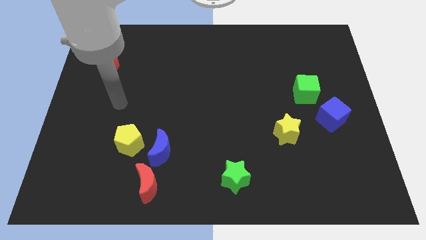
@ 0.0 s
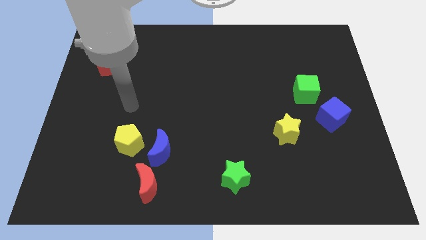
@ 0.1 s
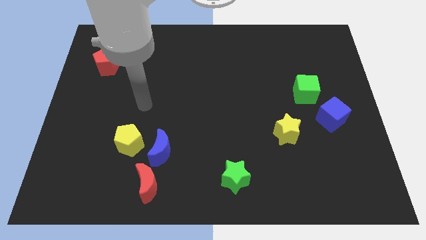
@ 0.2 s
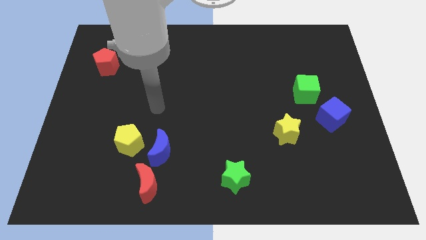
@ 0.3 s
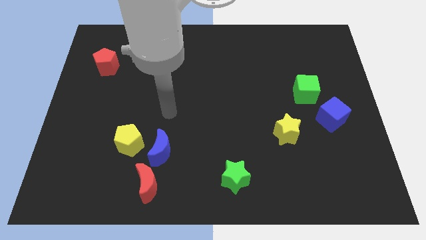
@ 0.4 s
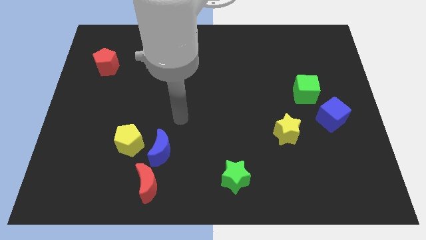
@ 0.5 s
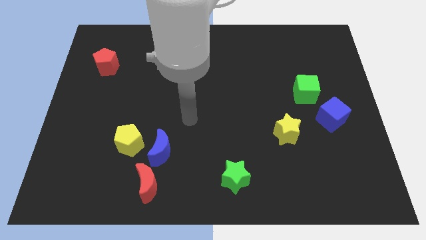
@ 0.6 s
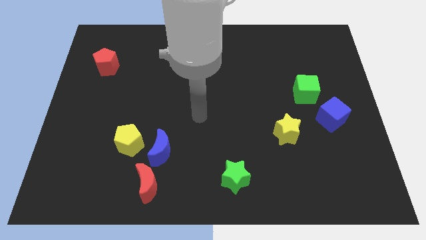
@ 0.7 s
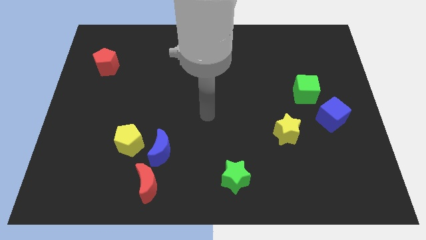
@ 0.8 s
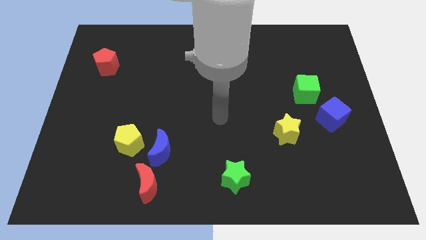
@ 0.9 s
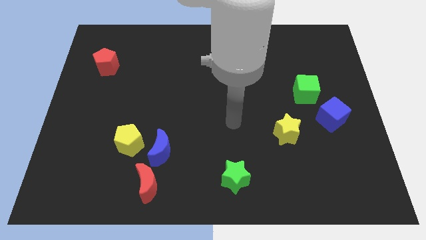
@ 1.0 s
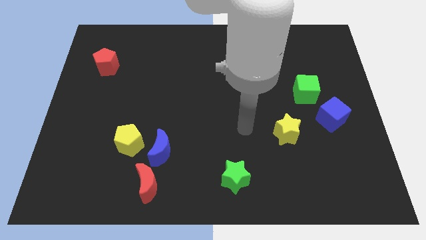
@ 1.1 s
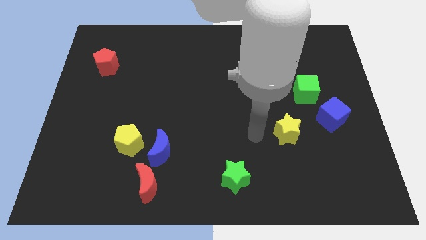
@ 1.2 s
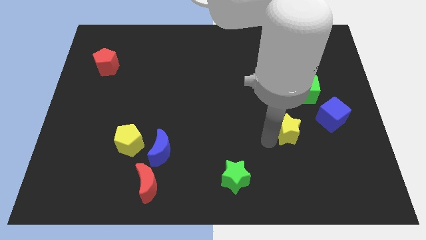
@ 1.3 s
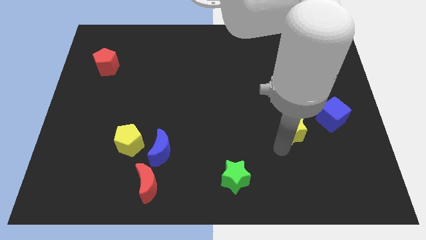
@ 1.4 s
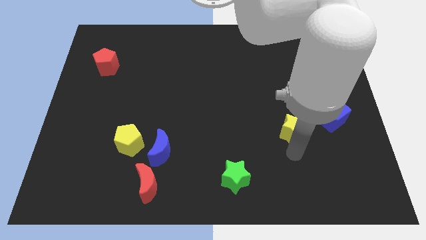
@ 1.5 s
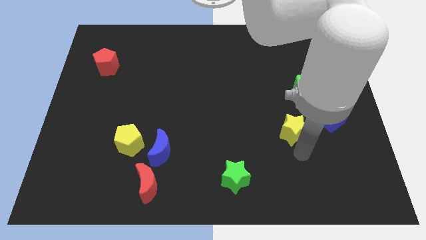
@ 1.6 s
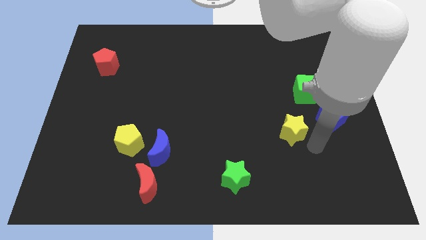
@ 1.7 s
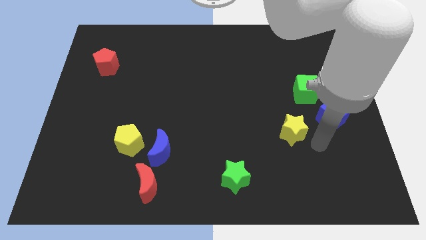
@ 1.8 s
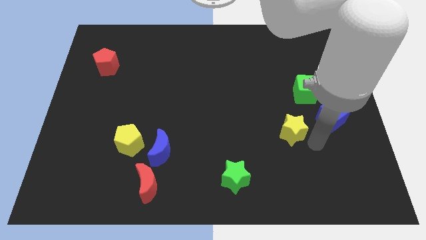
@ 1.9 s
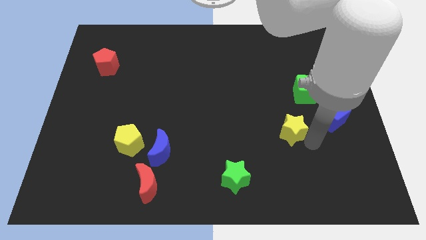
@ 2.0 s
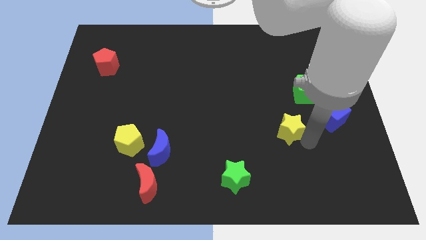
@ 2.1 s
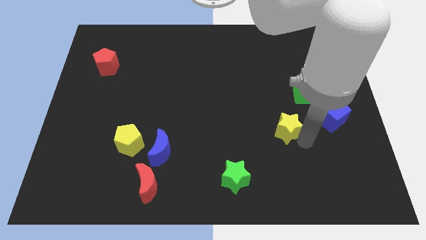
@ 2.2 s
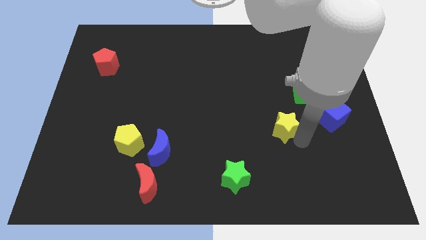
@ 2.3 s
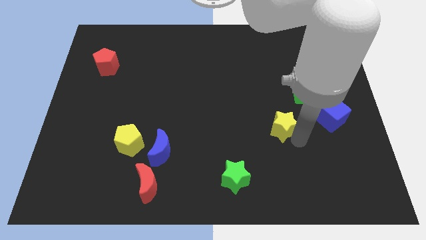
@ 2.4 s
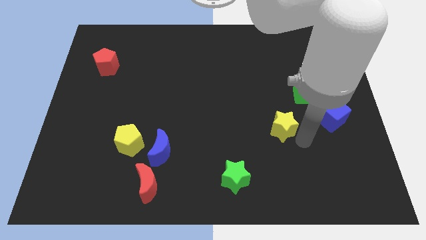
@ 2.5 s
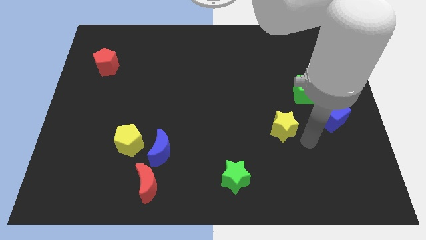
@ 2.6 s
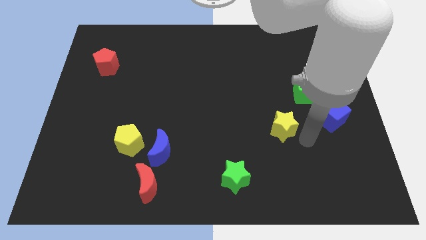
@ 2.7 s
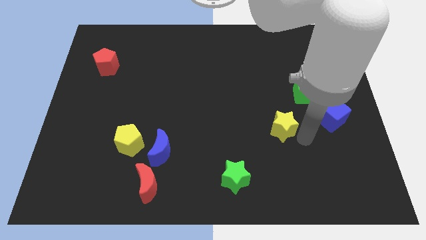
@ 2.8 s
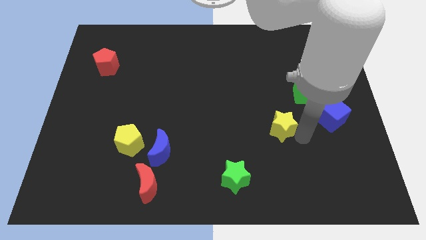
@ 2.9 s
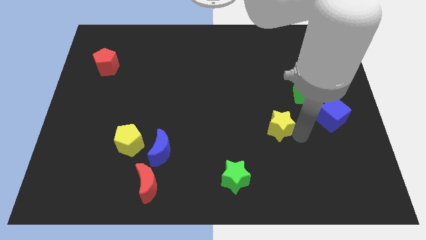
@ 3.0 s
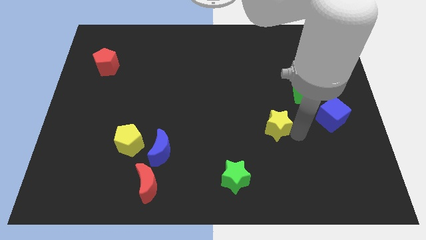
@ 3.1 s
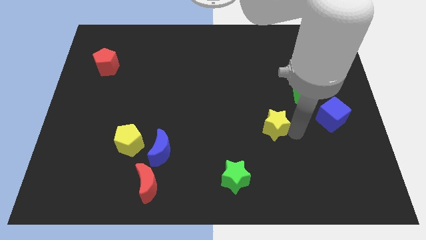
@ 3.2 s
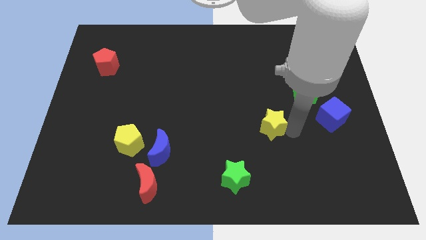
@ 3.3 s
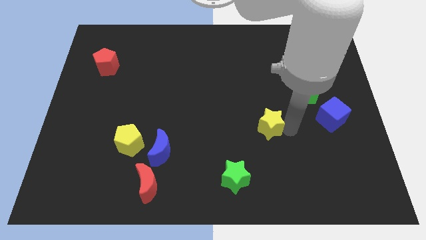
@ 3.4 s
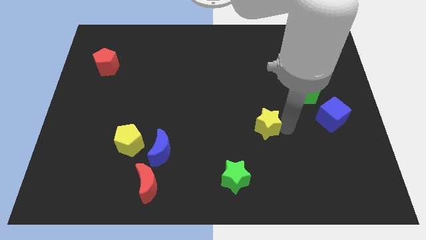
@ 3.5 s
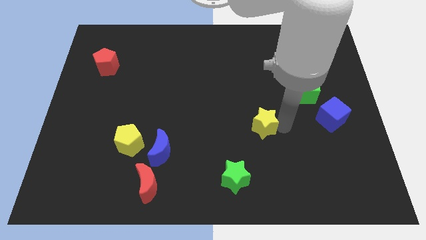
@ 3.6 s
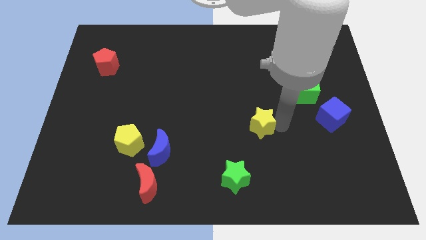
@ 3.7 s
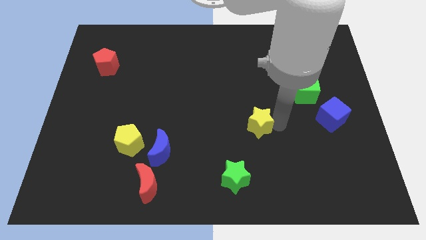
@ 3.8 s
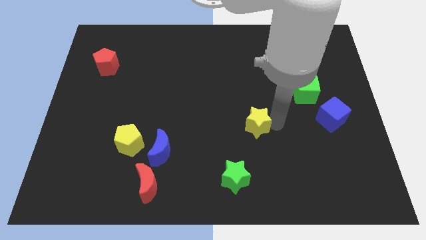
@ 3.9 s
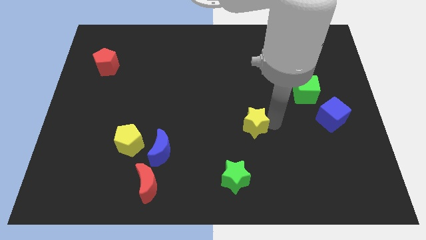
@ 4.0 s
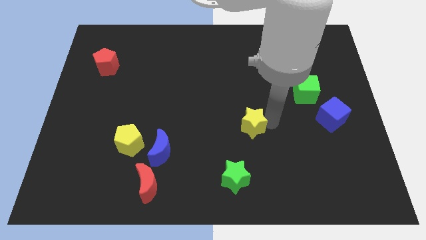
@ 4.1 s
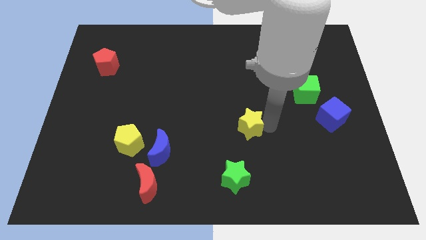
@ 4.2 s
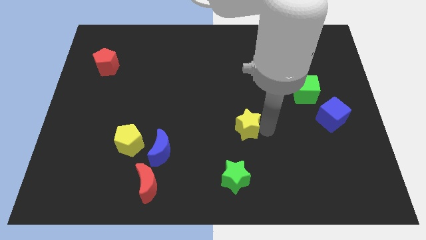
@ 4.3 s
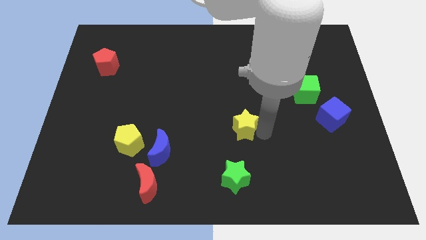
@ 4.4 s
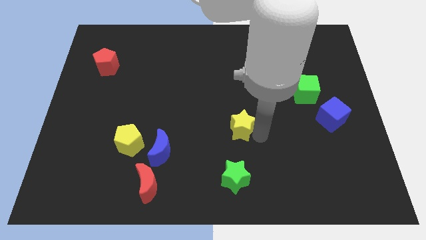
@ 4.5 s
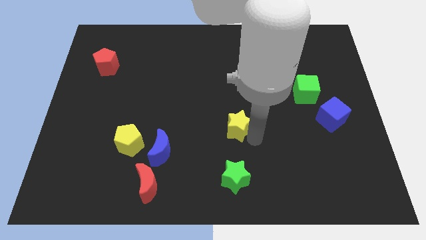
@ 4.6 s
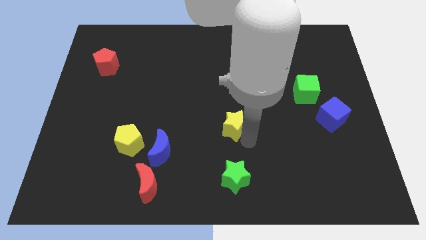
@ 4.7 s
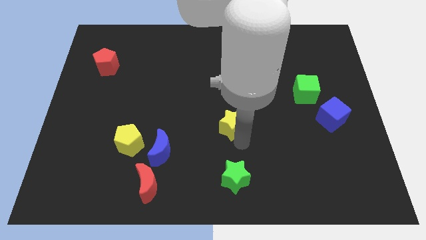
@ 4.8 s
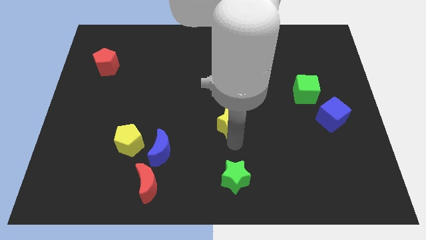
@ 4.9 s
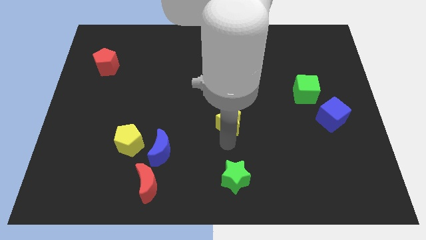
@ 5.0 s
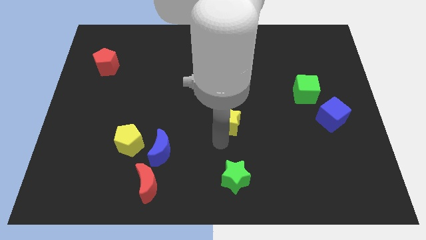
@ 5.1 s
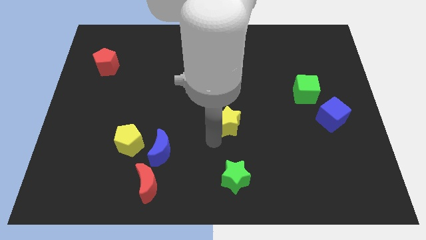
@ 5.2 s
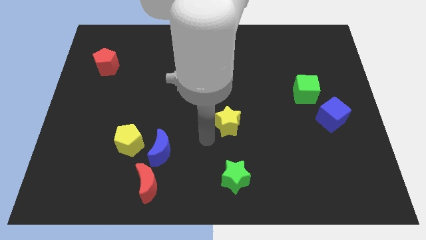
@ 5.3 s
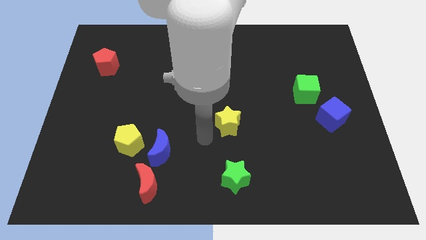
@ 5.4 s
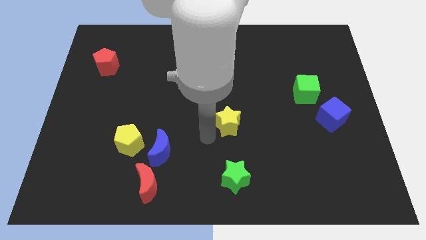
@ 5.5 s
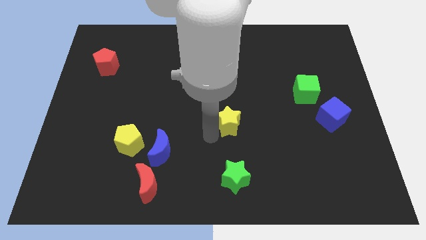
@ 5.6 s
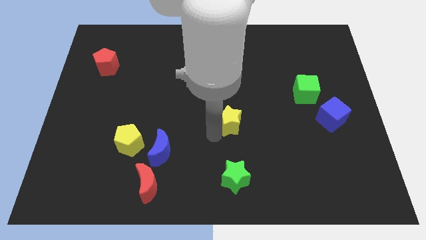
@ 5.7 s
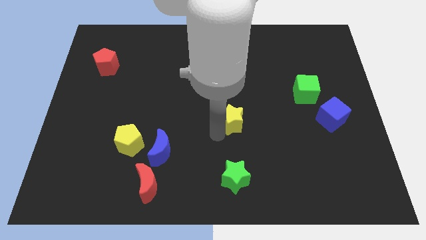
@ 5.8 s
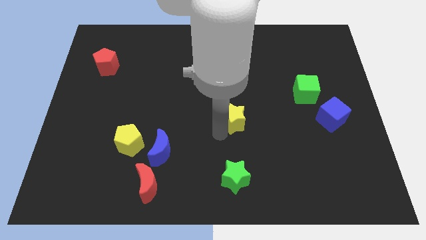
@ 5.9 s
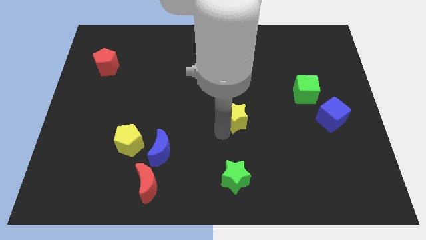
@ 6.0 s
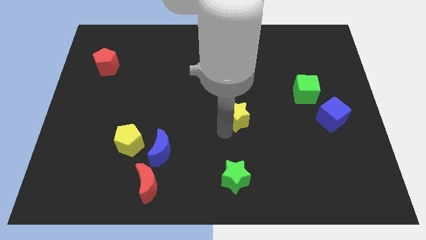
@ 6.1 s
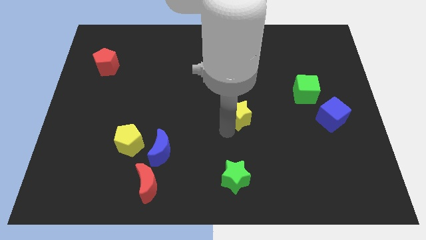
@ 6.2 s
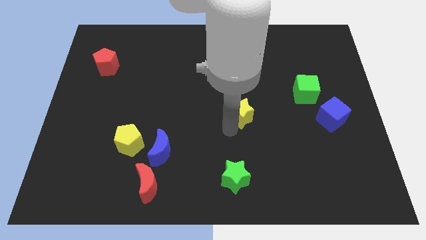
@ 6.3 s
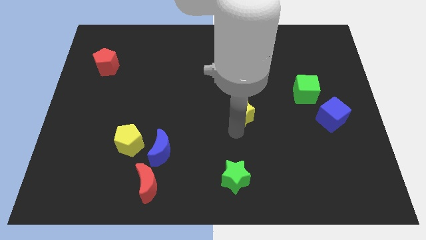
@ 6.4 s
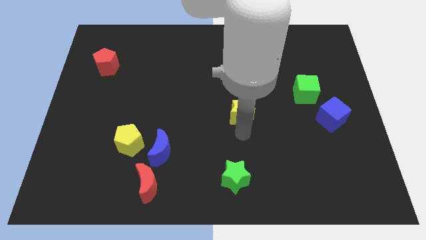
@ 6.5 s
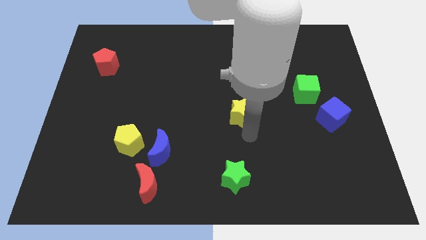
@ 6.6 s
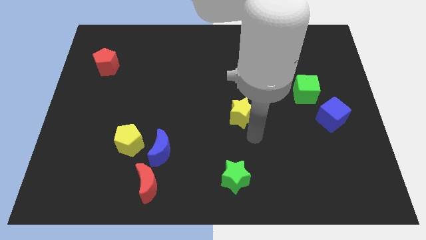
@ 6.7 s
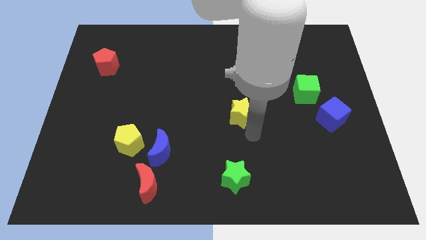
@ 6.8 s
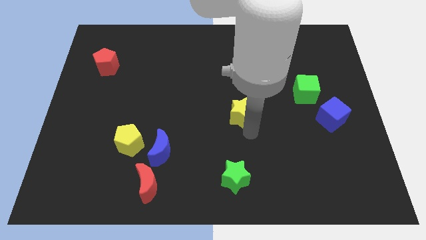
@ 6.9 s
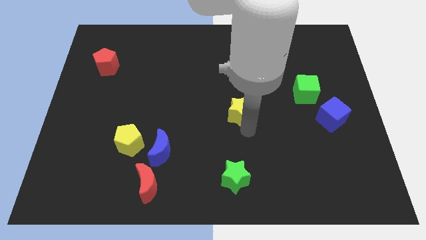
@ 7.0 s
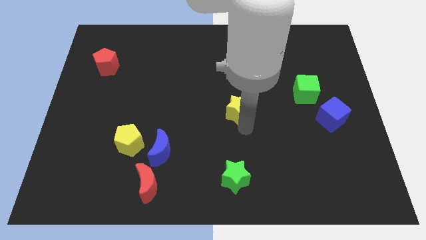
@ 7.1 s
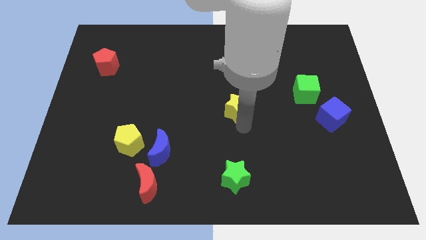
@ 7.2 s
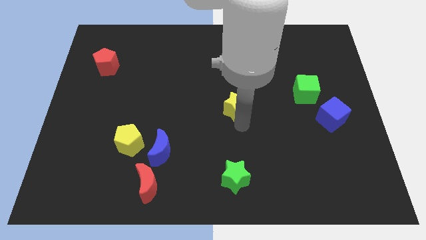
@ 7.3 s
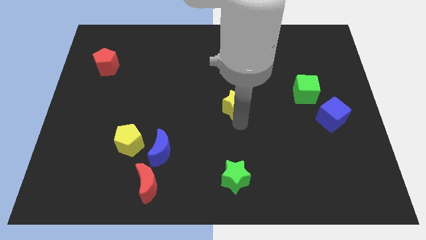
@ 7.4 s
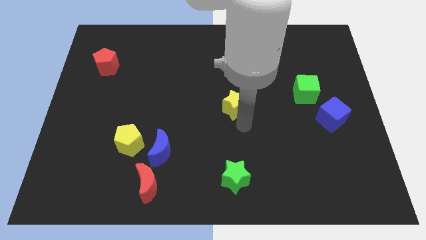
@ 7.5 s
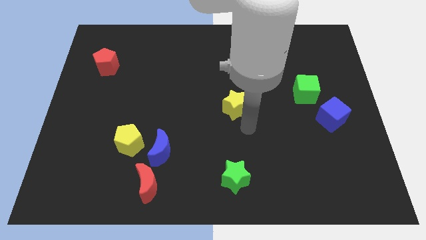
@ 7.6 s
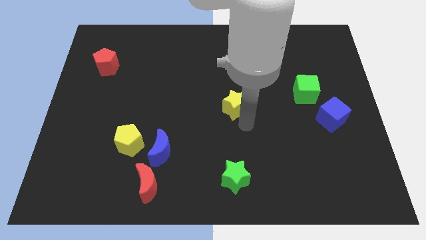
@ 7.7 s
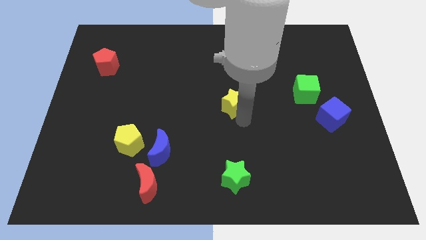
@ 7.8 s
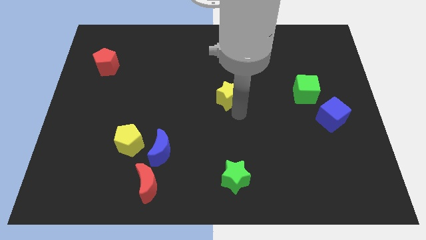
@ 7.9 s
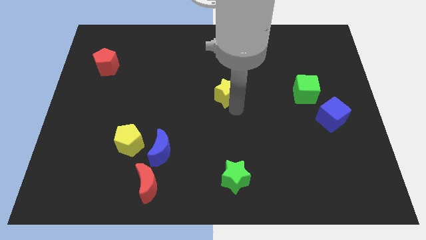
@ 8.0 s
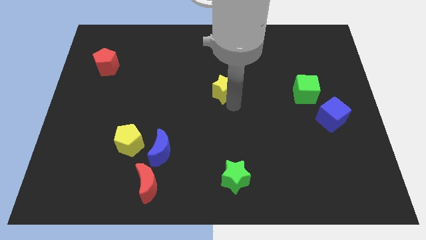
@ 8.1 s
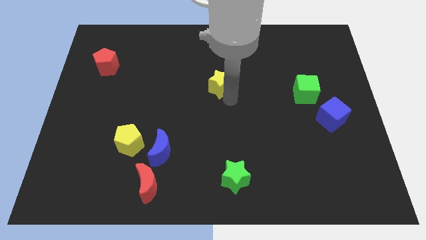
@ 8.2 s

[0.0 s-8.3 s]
push the yellow star upwards and left
